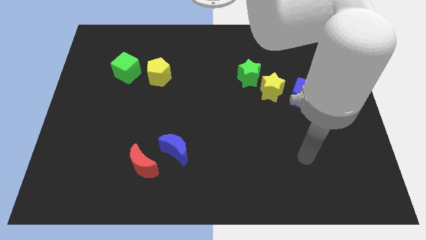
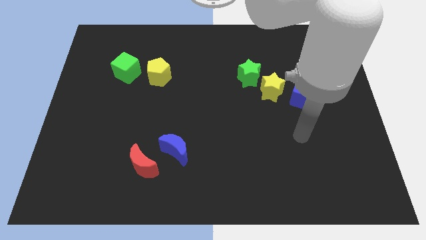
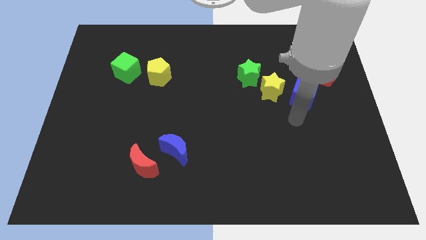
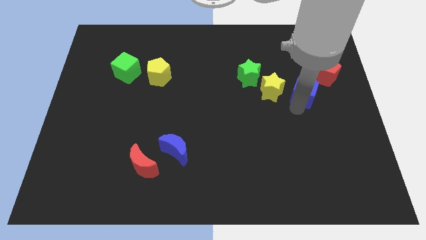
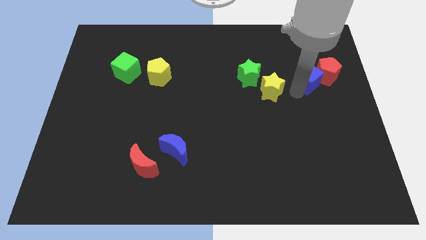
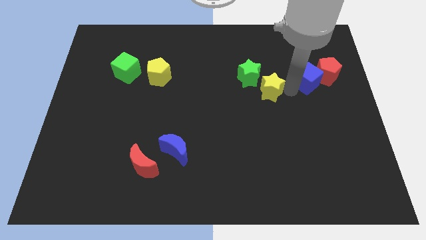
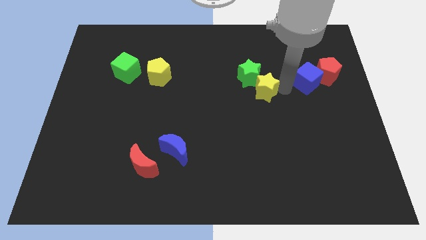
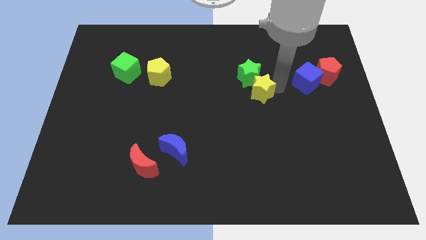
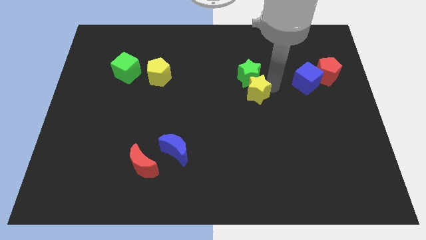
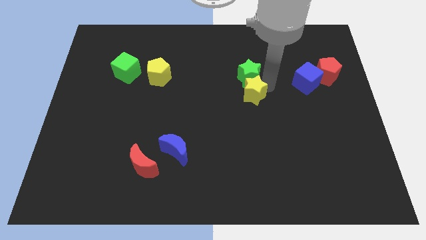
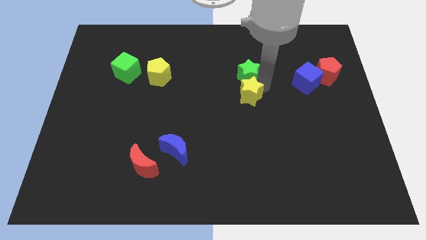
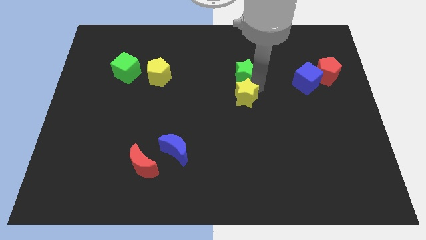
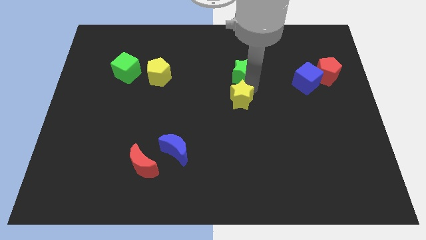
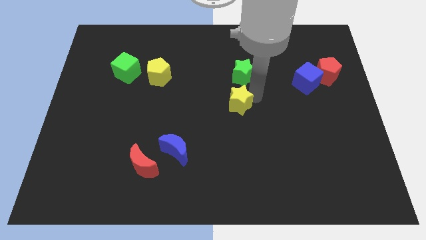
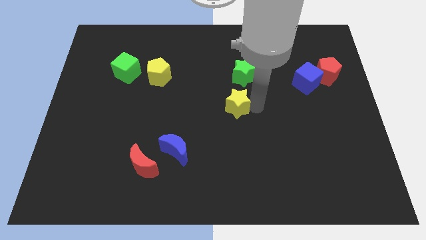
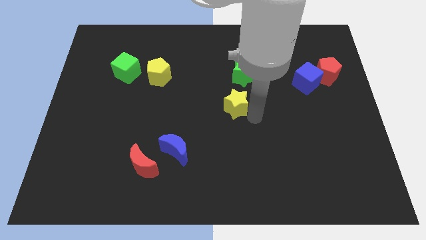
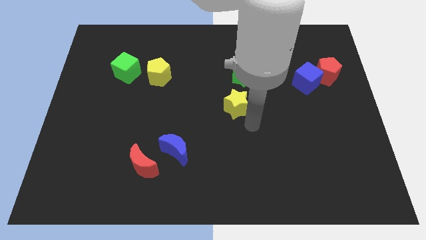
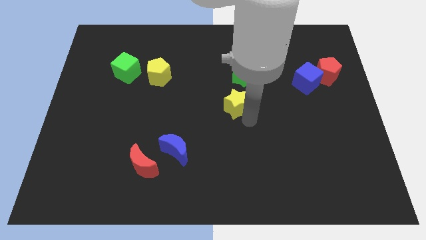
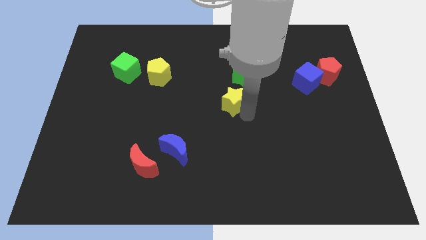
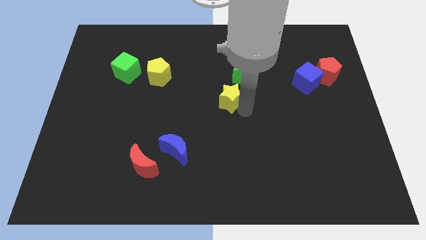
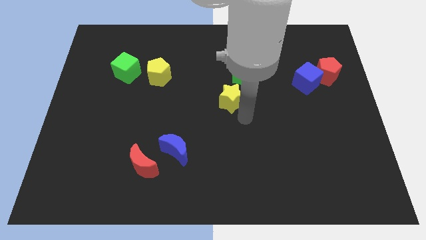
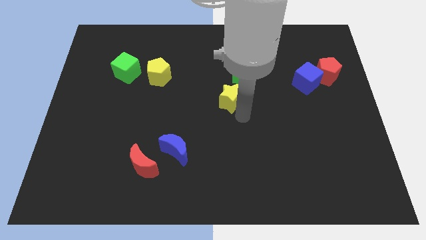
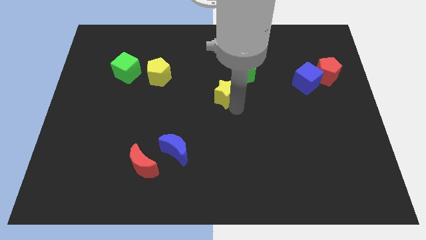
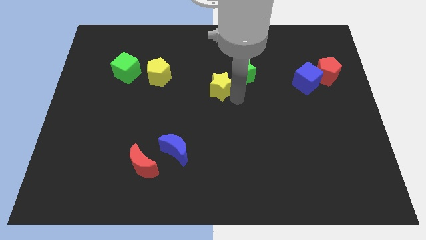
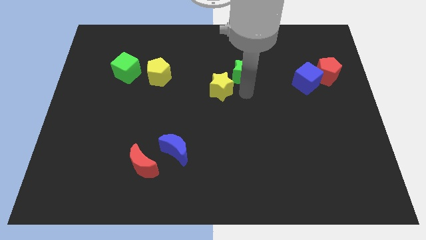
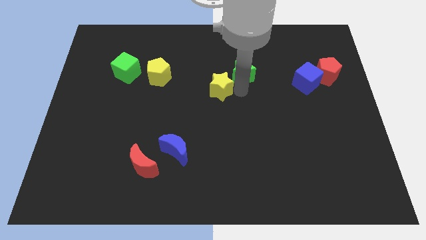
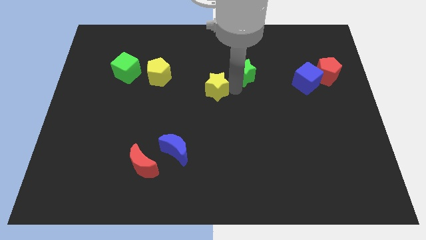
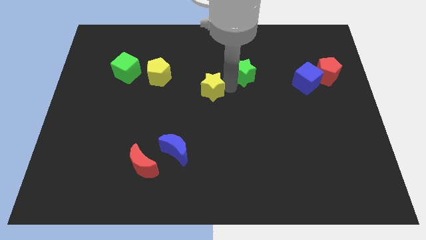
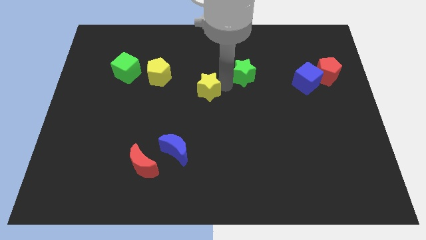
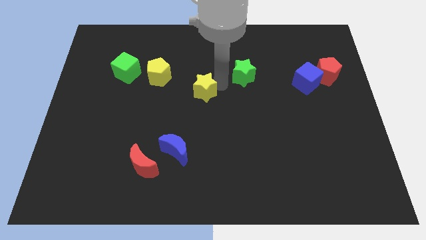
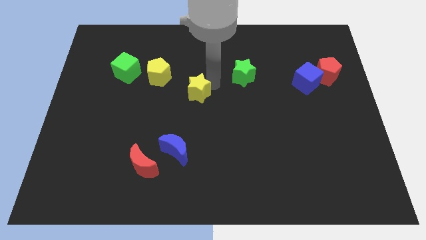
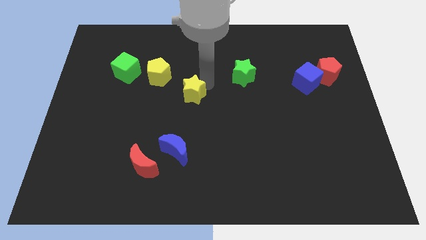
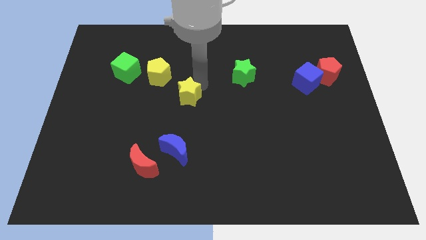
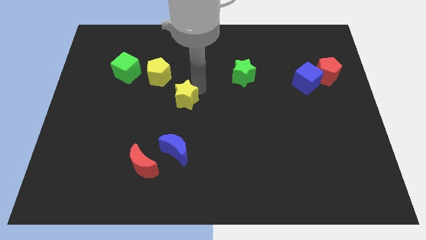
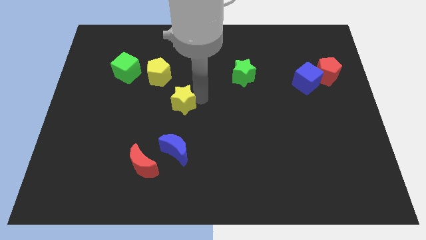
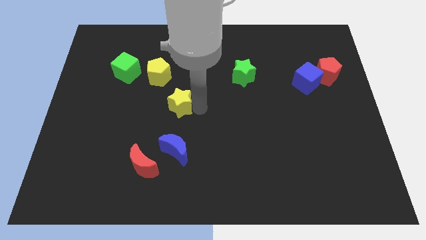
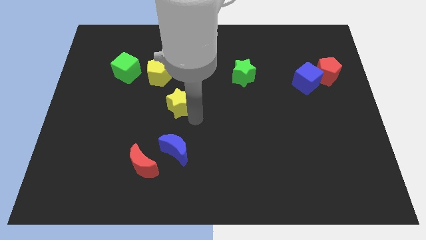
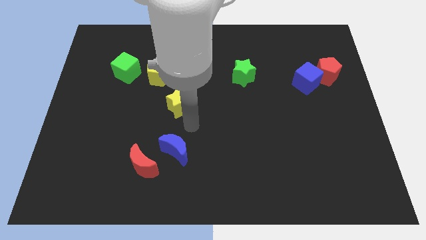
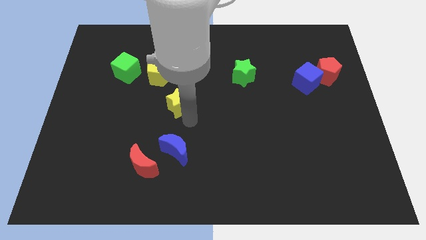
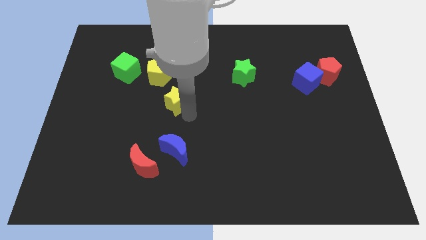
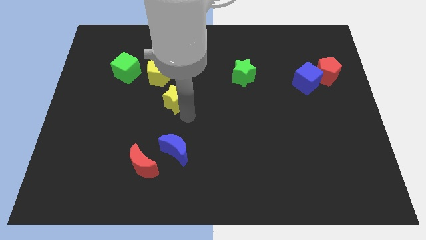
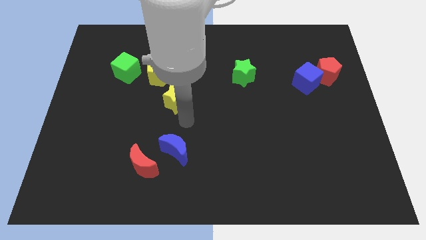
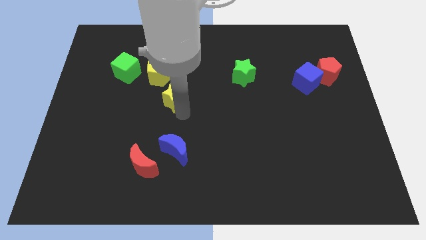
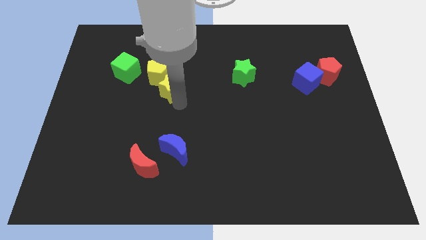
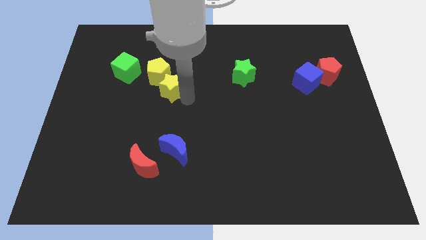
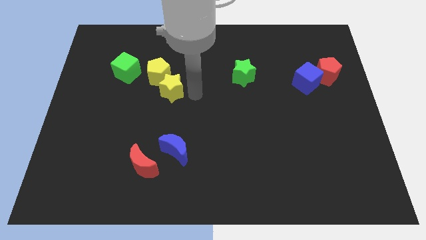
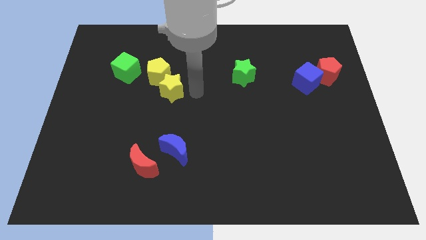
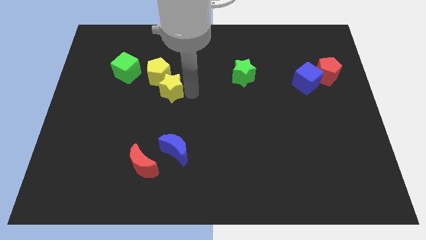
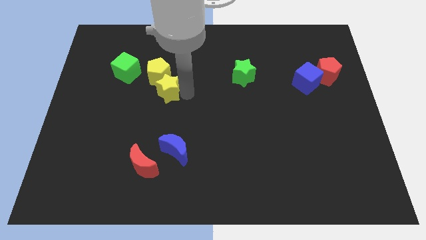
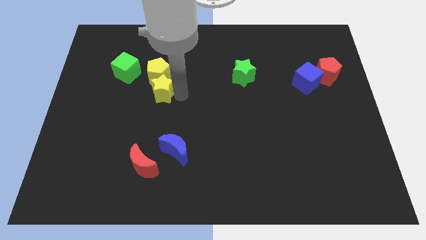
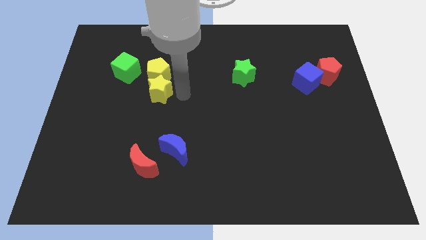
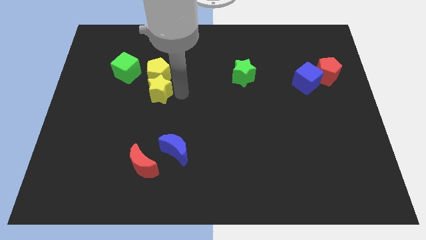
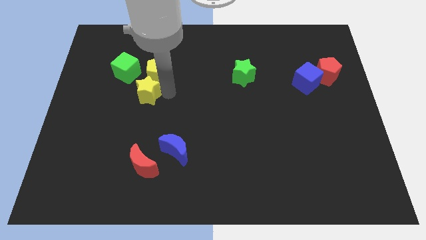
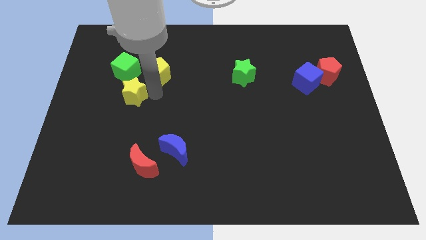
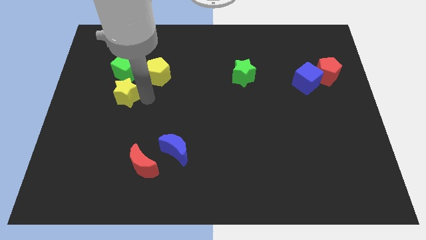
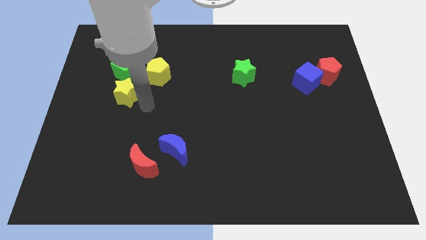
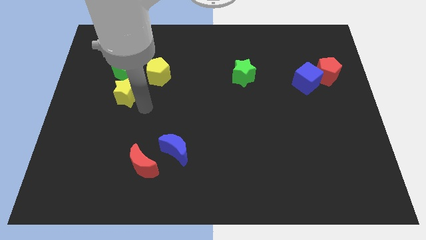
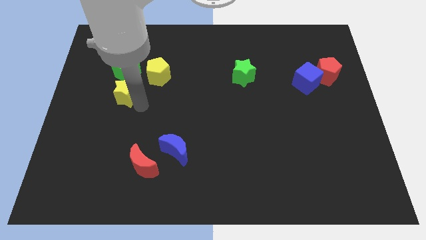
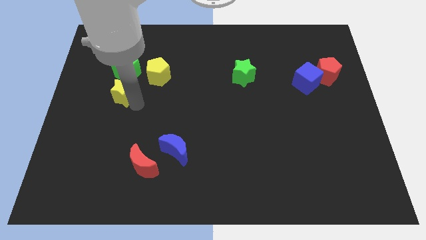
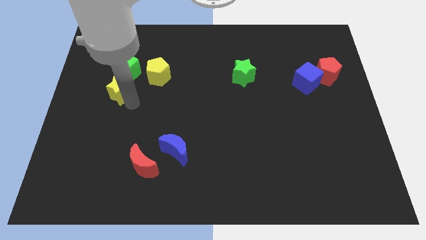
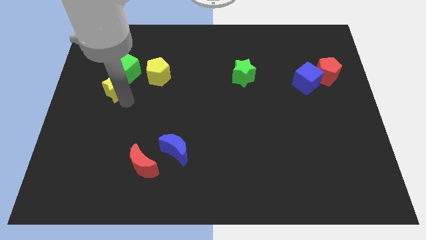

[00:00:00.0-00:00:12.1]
slide the yellow star left of the yellow pentagon

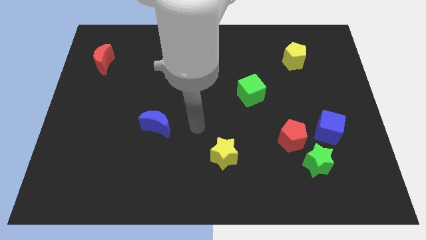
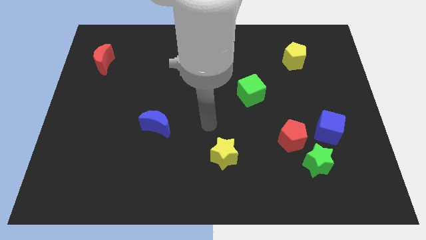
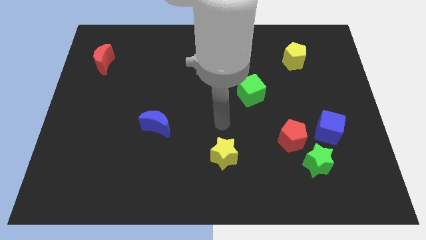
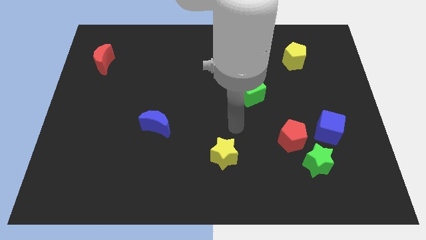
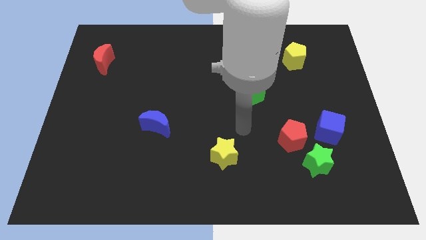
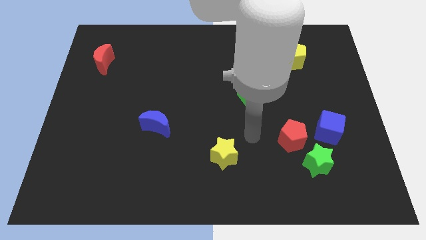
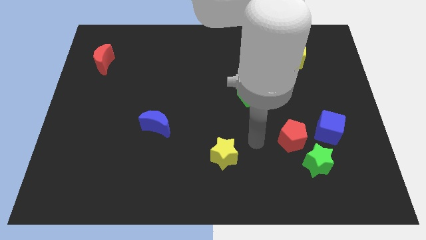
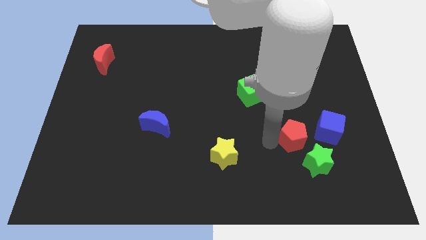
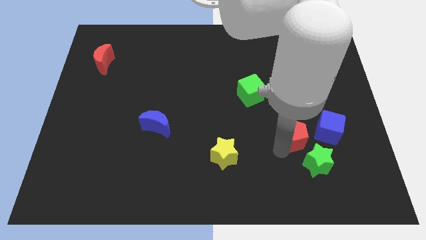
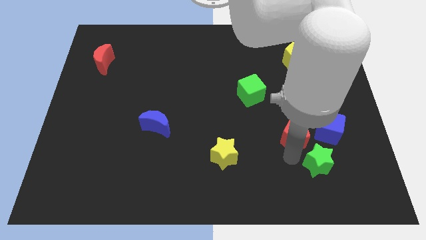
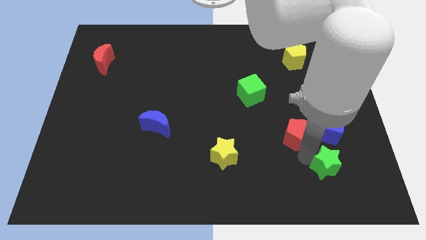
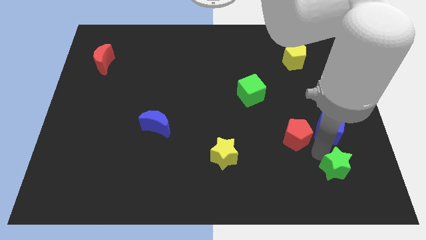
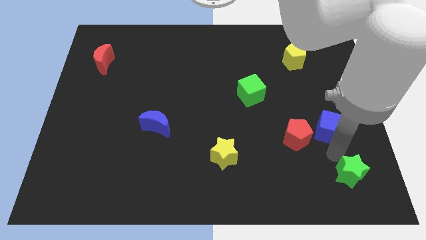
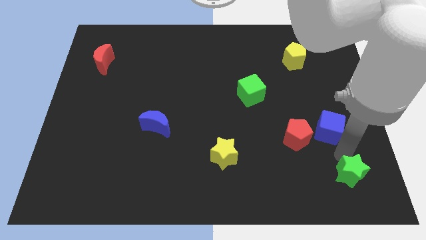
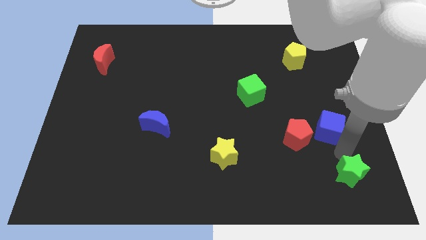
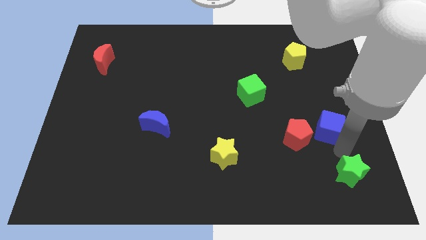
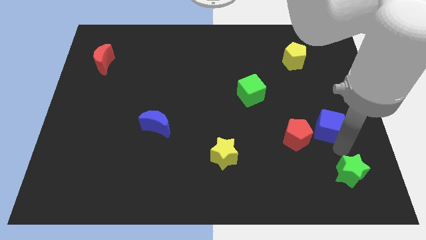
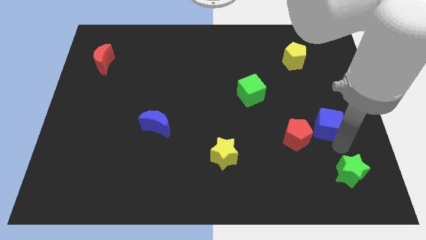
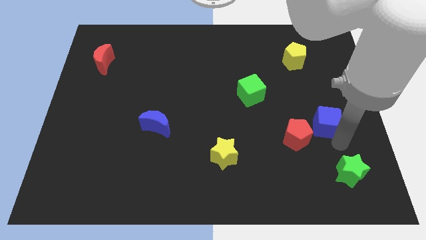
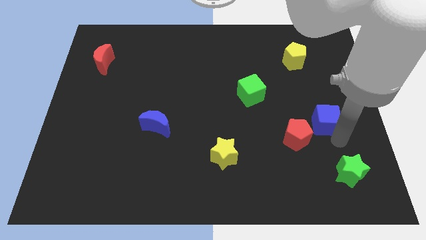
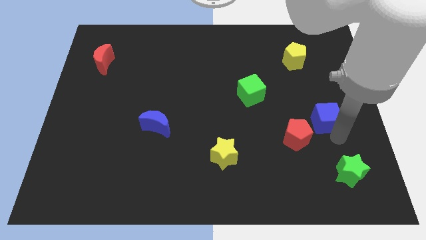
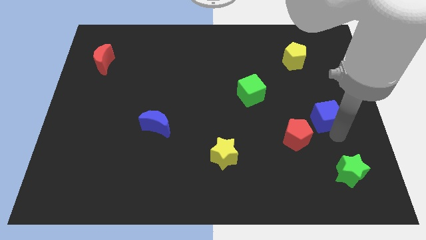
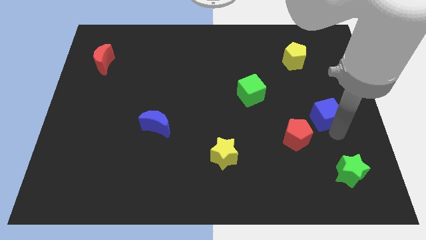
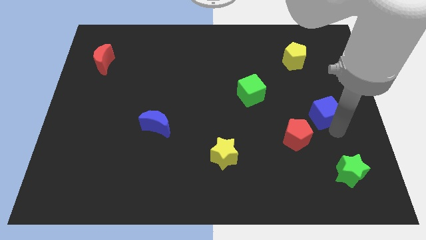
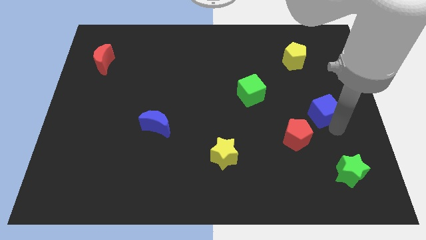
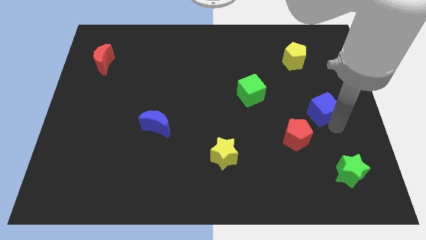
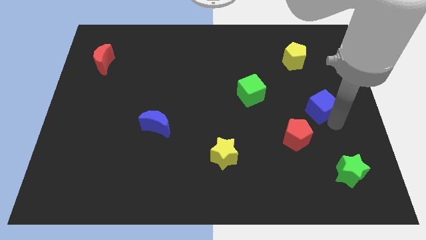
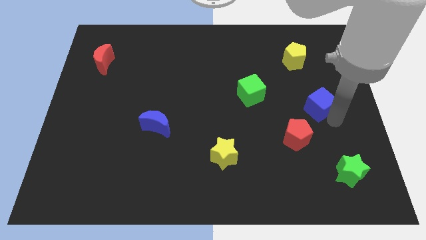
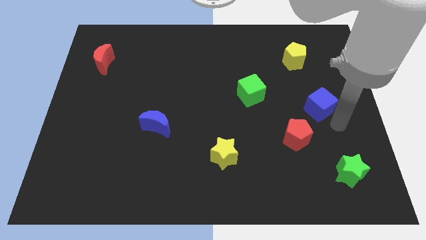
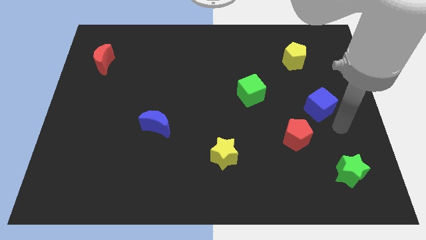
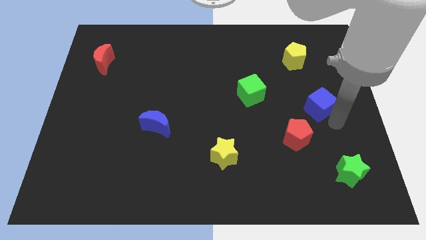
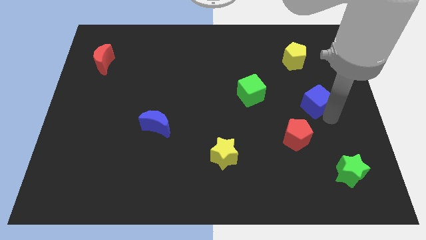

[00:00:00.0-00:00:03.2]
slide the blue cube below the yellow pentagon
